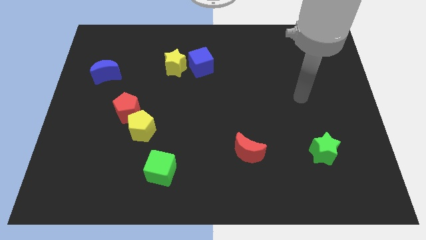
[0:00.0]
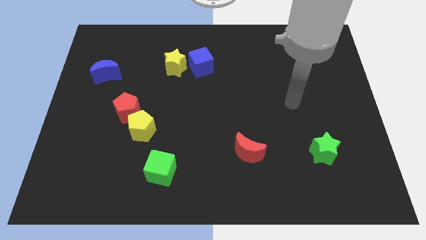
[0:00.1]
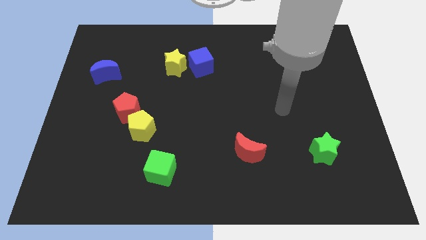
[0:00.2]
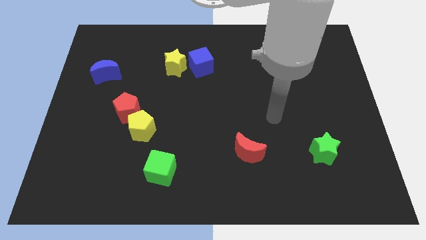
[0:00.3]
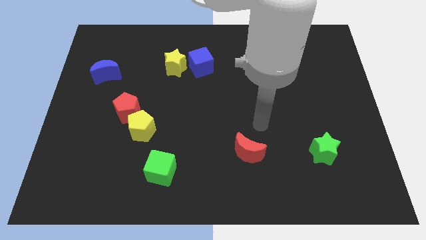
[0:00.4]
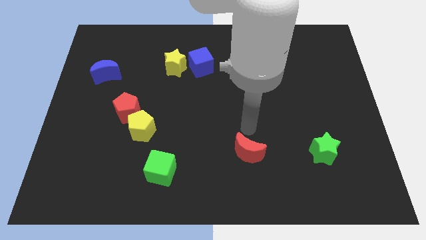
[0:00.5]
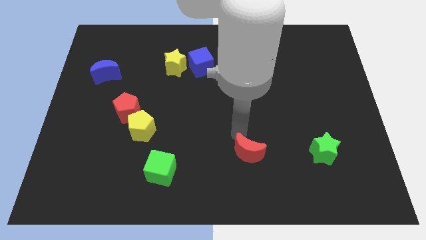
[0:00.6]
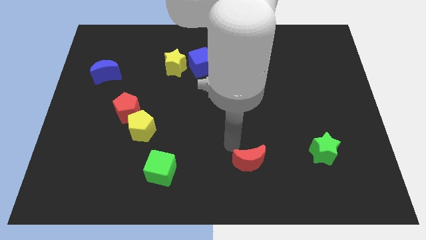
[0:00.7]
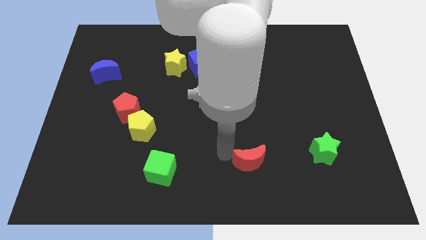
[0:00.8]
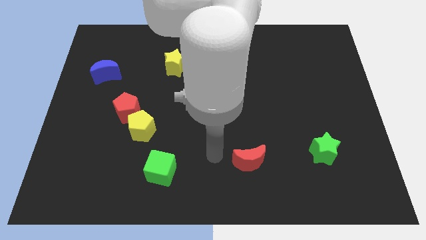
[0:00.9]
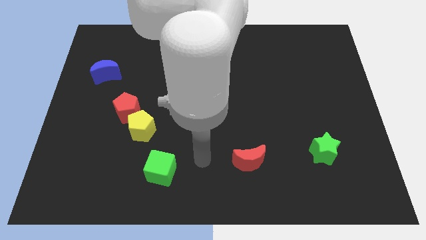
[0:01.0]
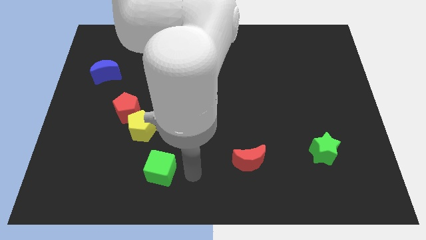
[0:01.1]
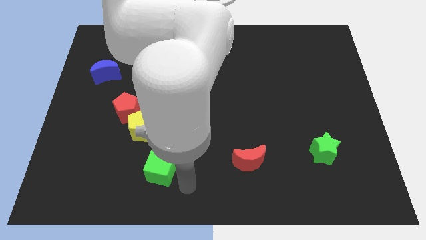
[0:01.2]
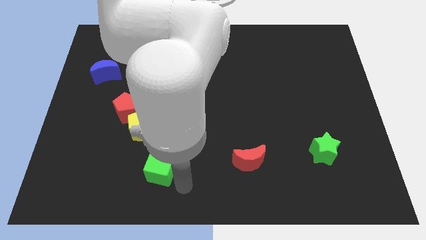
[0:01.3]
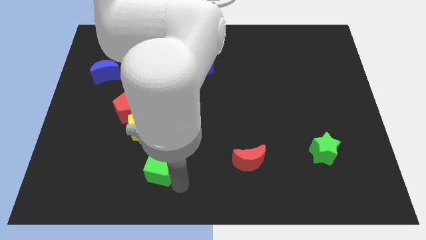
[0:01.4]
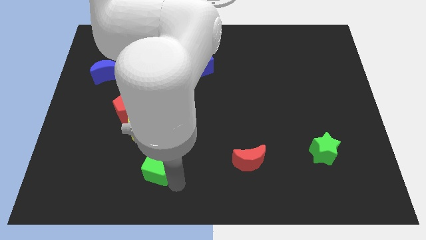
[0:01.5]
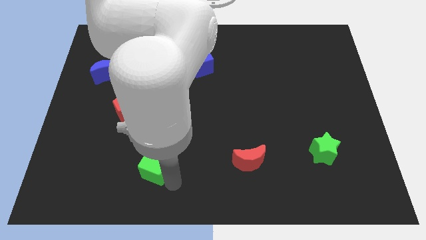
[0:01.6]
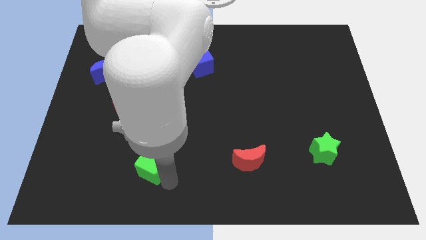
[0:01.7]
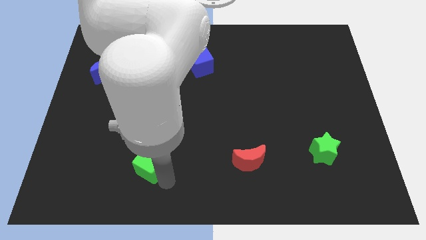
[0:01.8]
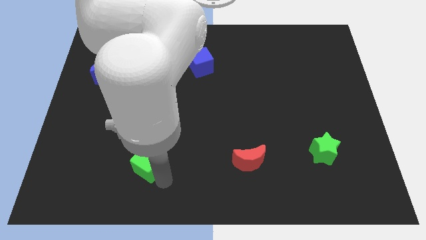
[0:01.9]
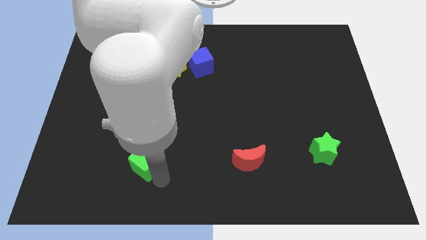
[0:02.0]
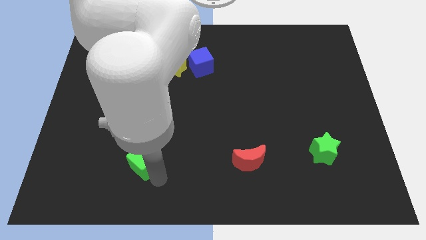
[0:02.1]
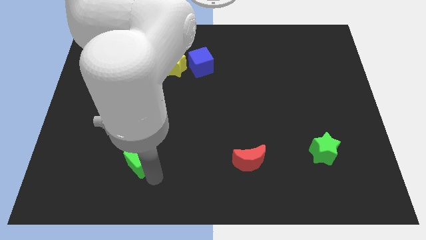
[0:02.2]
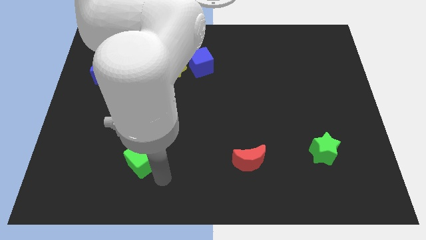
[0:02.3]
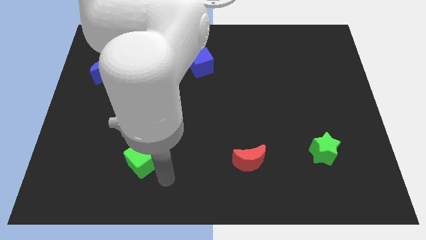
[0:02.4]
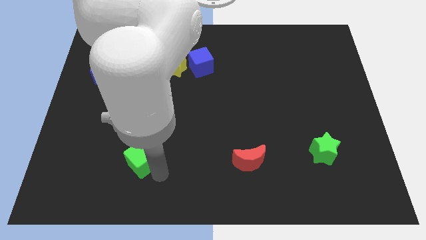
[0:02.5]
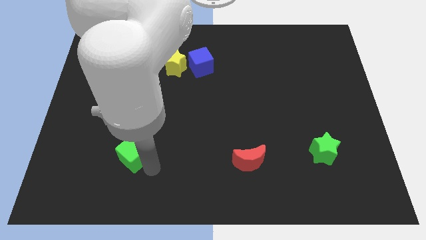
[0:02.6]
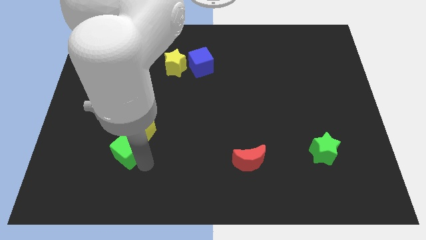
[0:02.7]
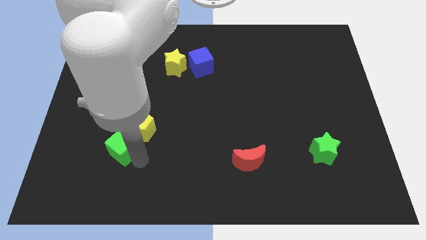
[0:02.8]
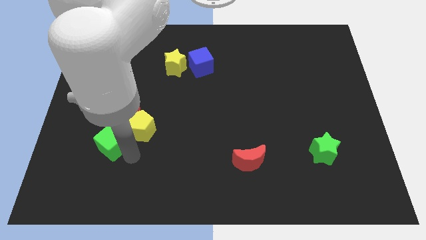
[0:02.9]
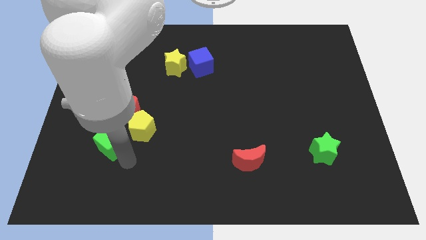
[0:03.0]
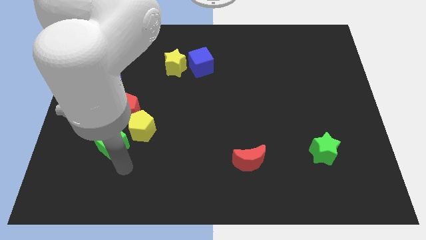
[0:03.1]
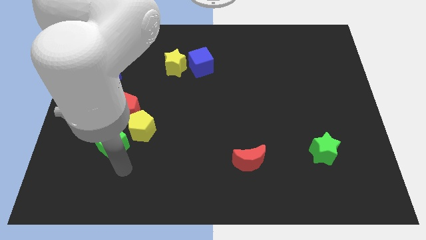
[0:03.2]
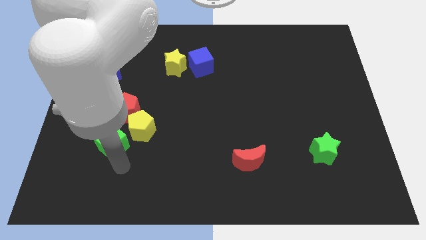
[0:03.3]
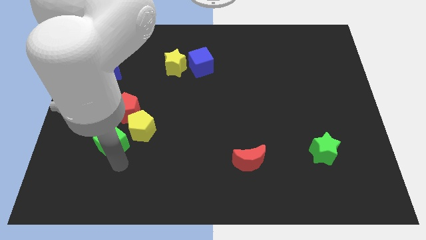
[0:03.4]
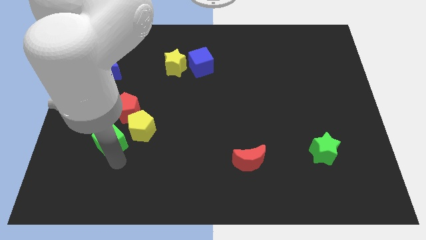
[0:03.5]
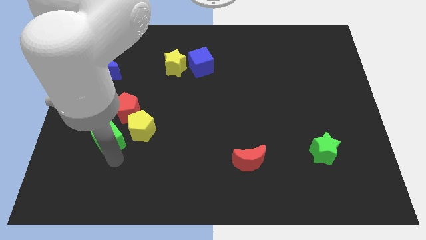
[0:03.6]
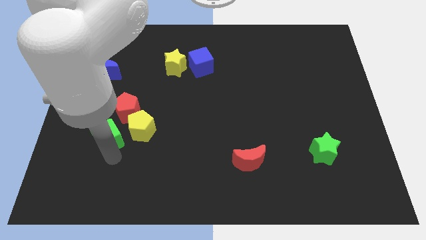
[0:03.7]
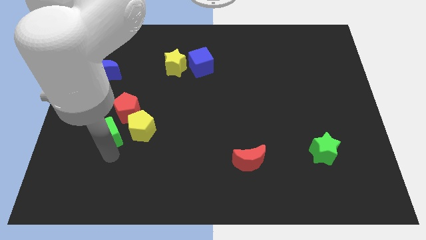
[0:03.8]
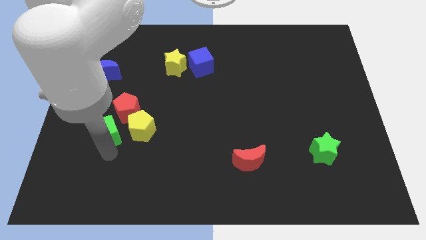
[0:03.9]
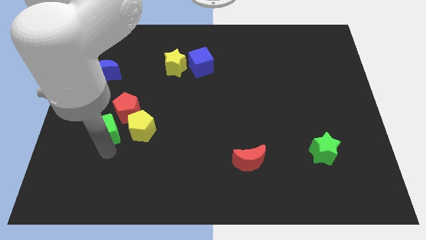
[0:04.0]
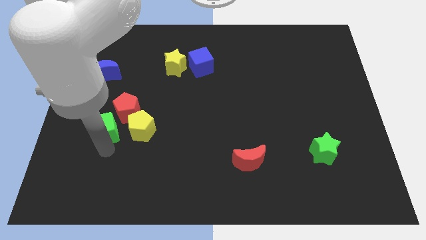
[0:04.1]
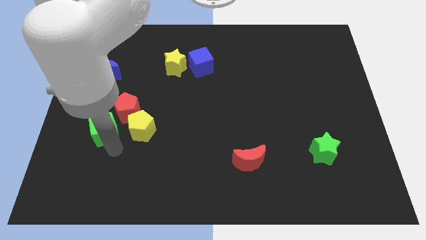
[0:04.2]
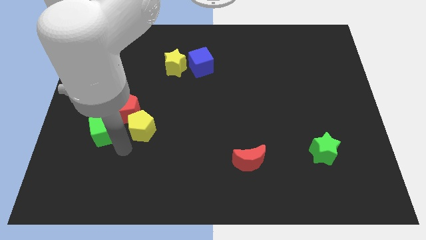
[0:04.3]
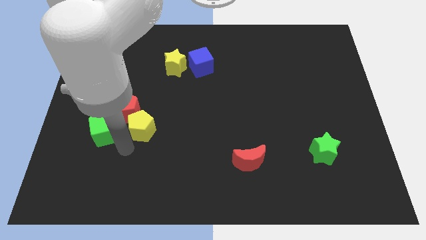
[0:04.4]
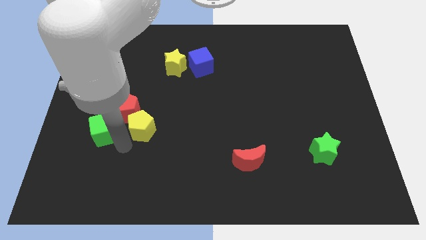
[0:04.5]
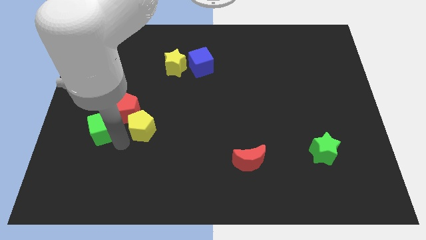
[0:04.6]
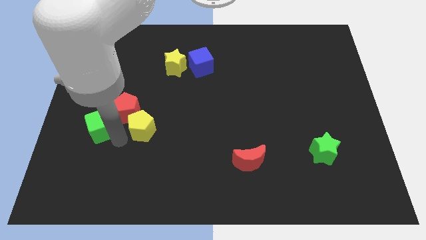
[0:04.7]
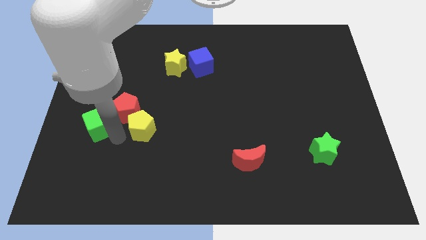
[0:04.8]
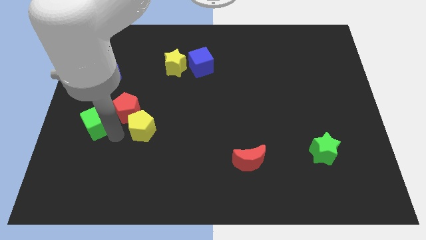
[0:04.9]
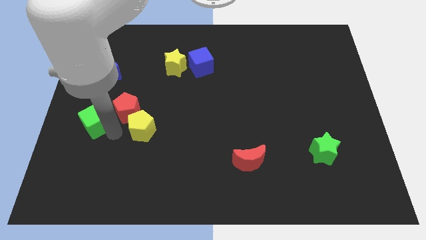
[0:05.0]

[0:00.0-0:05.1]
move the green cube to the center left

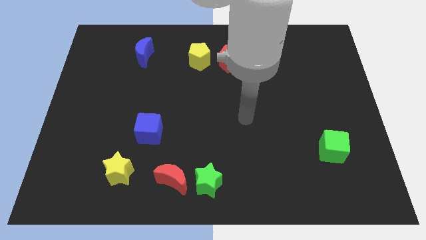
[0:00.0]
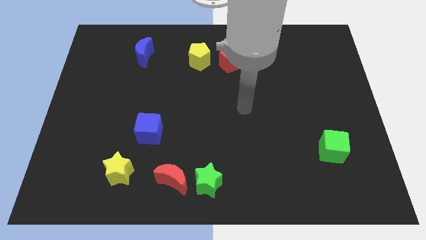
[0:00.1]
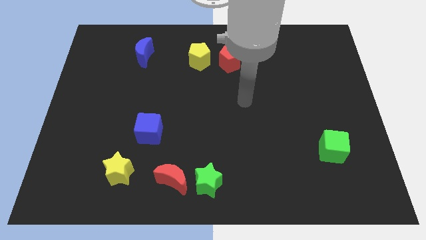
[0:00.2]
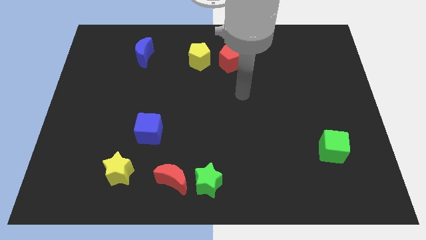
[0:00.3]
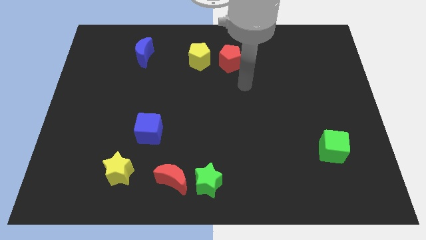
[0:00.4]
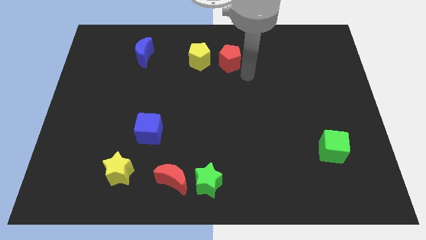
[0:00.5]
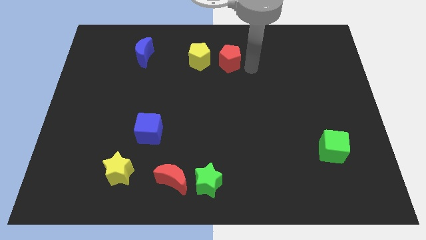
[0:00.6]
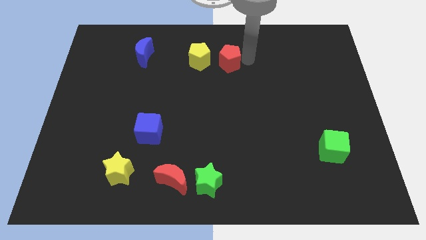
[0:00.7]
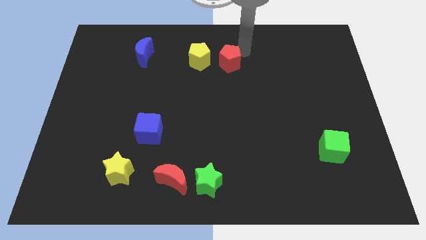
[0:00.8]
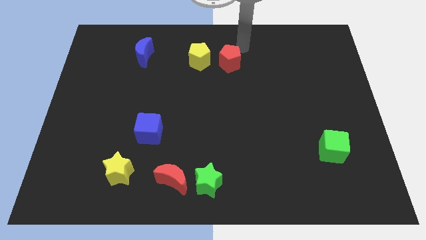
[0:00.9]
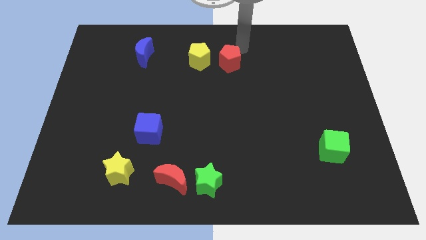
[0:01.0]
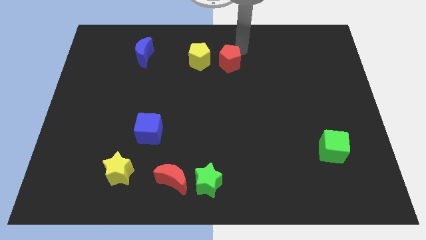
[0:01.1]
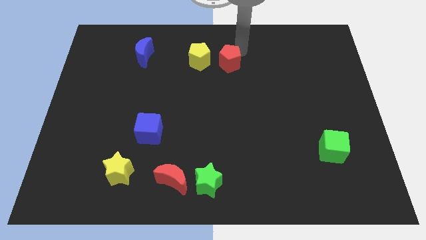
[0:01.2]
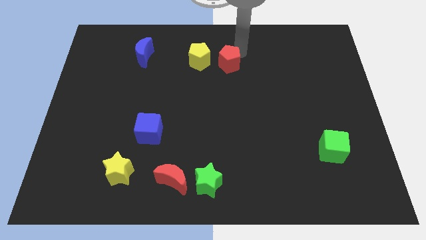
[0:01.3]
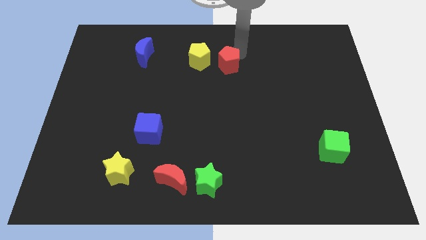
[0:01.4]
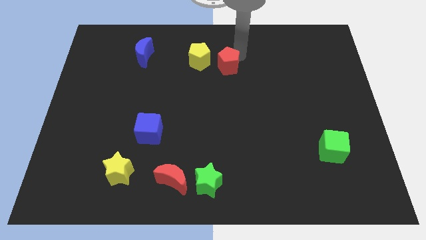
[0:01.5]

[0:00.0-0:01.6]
push the red pentagon to the center of the board
